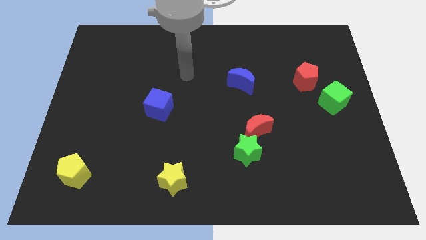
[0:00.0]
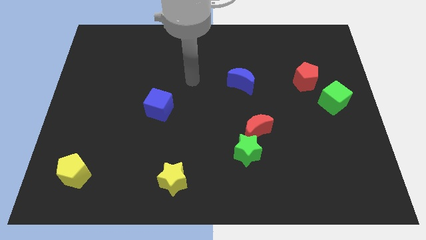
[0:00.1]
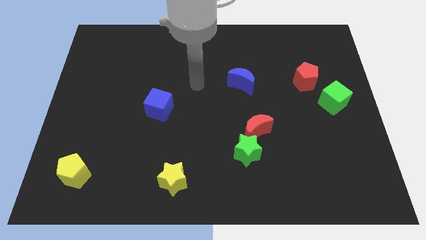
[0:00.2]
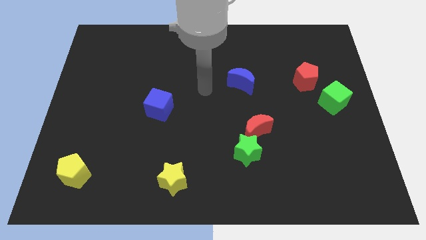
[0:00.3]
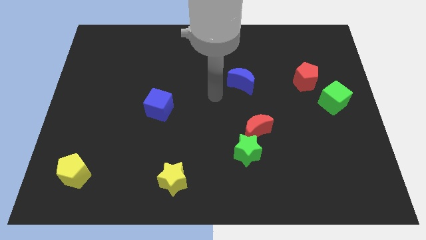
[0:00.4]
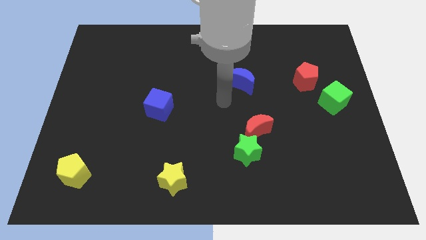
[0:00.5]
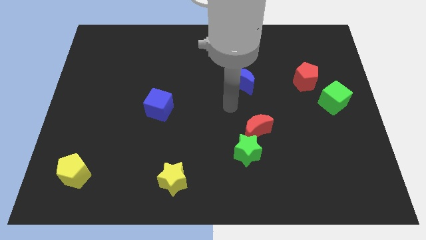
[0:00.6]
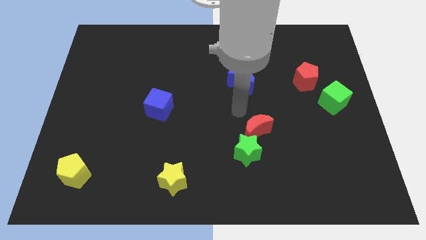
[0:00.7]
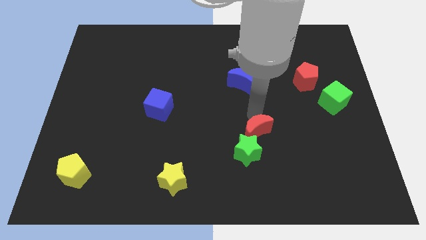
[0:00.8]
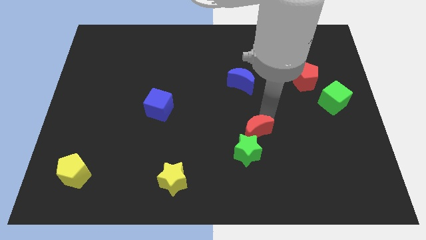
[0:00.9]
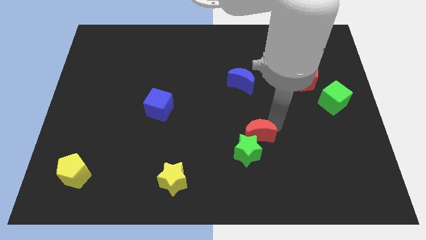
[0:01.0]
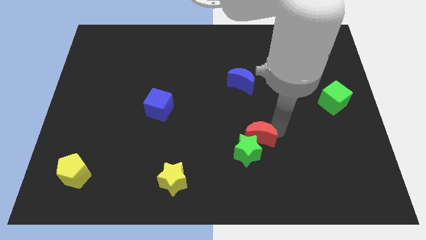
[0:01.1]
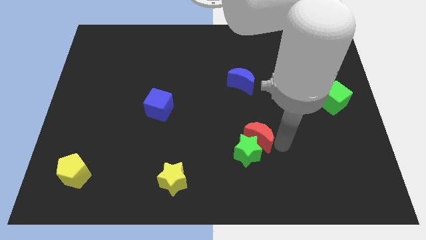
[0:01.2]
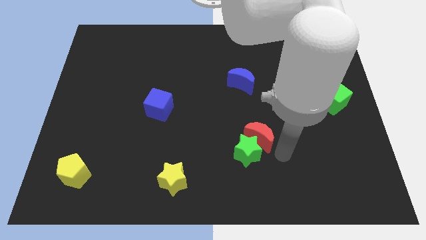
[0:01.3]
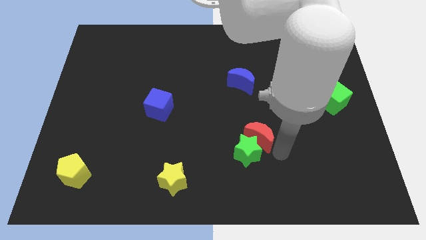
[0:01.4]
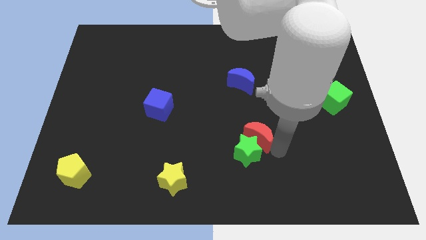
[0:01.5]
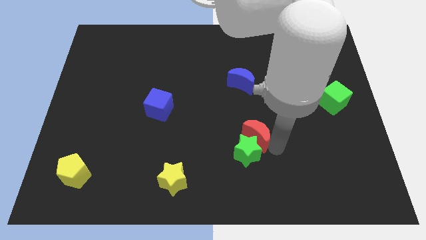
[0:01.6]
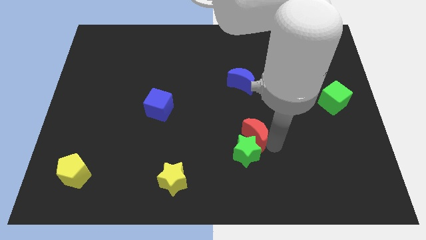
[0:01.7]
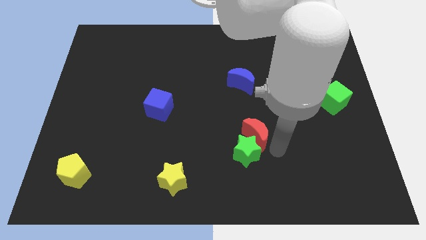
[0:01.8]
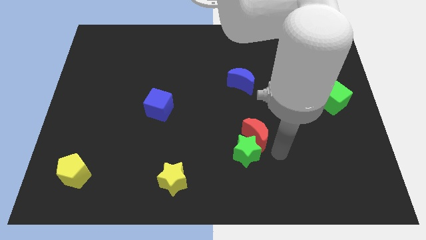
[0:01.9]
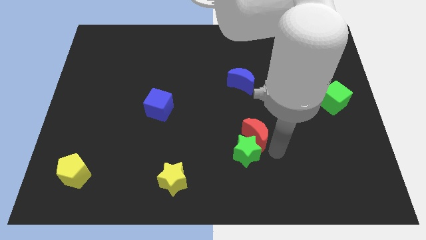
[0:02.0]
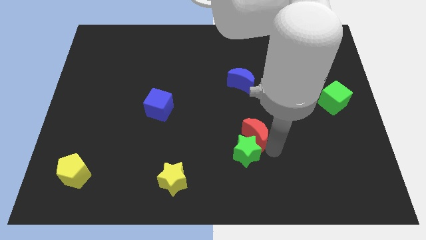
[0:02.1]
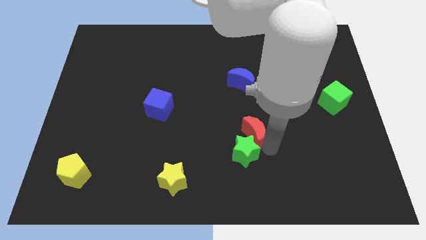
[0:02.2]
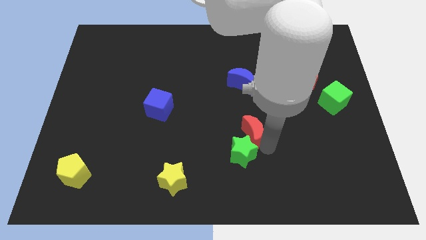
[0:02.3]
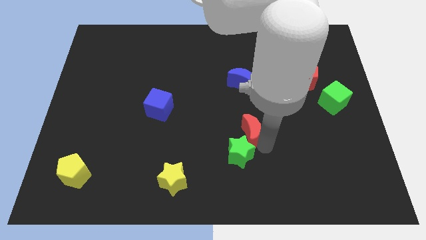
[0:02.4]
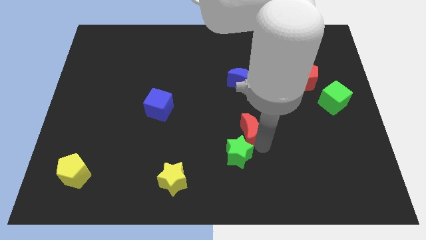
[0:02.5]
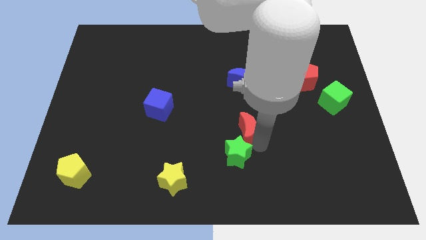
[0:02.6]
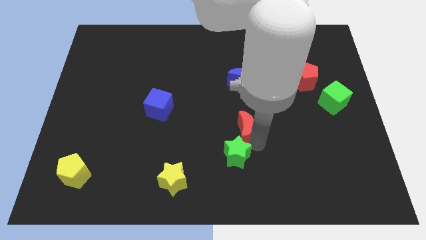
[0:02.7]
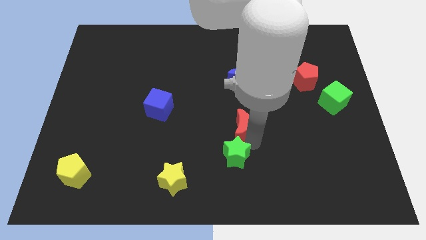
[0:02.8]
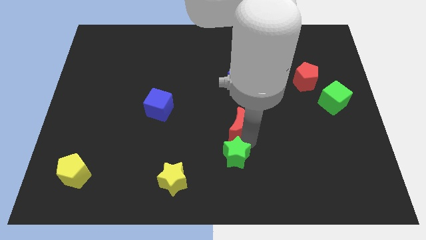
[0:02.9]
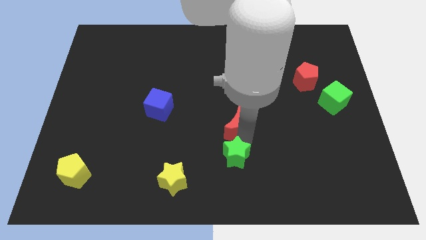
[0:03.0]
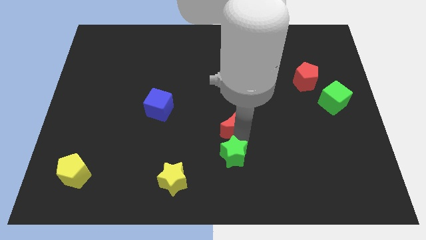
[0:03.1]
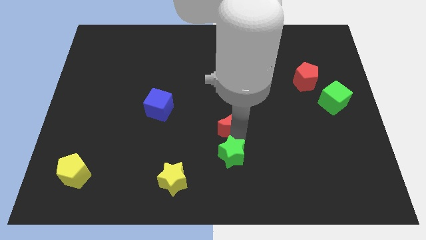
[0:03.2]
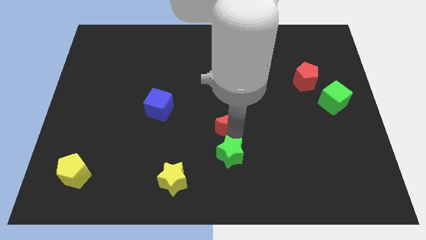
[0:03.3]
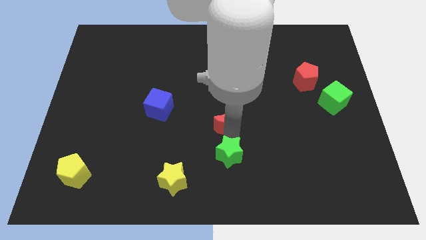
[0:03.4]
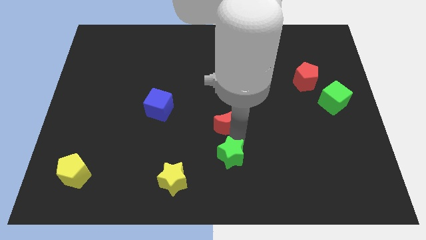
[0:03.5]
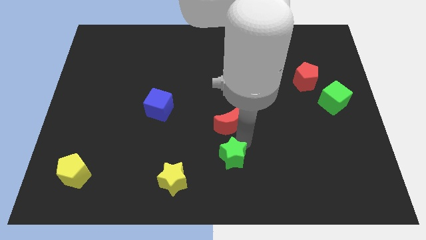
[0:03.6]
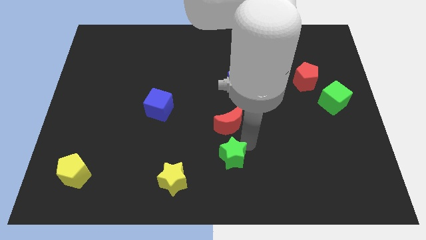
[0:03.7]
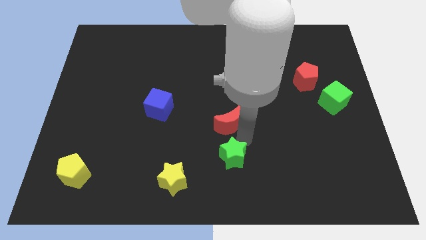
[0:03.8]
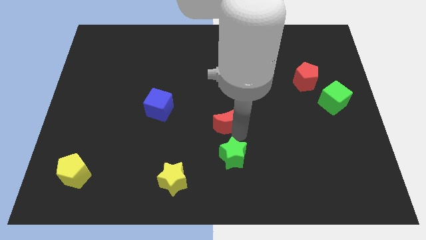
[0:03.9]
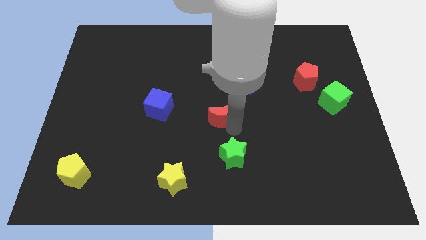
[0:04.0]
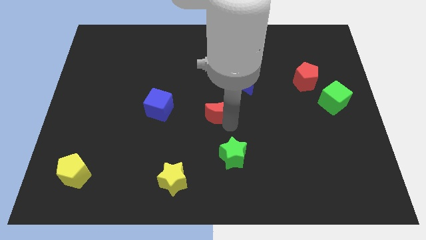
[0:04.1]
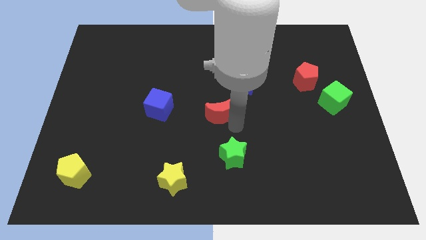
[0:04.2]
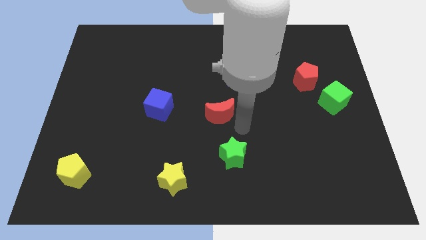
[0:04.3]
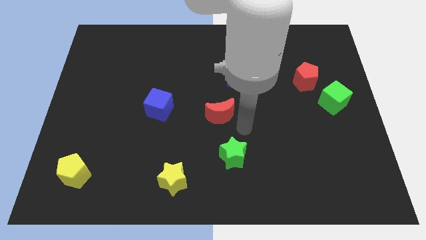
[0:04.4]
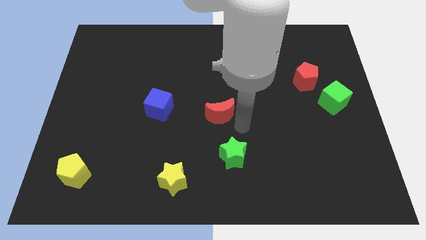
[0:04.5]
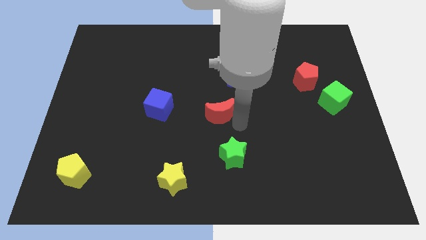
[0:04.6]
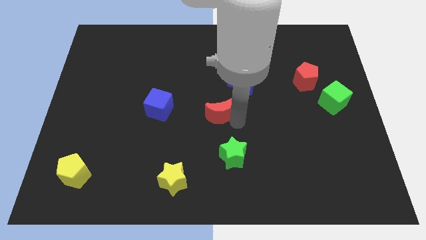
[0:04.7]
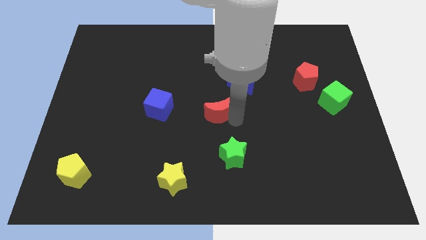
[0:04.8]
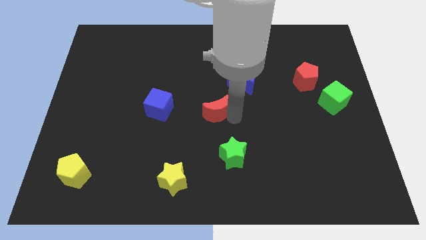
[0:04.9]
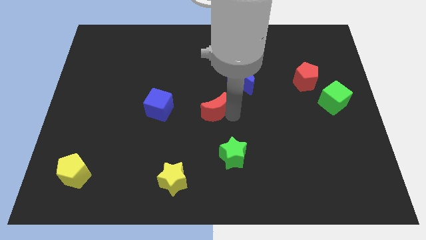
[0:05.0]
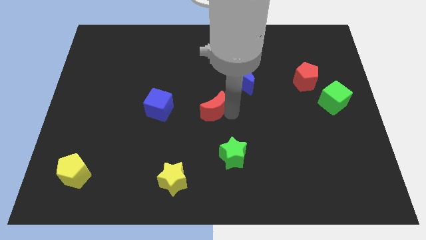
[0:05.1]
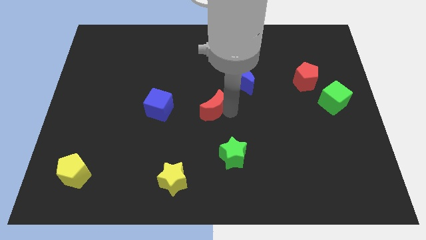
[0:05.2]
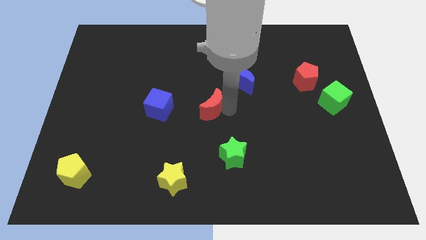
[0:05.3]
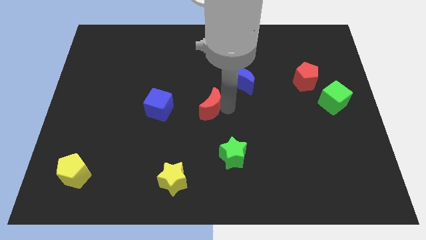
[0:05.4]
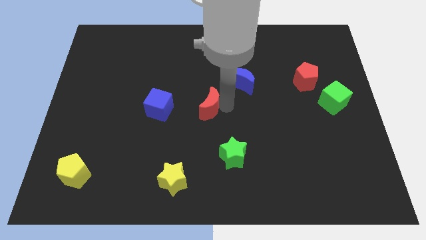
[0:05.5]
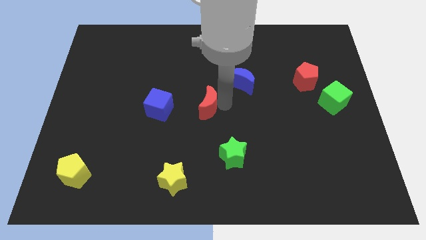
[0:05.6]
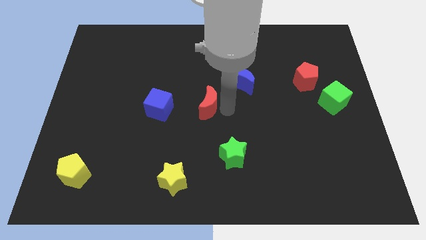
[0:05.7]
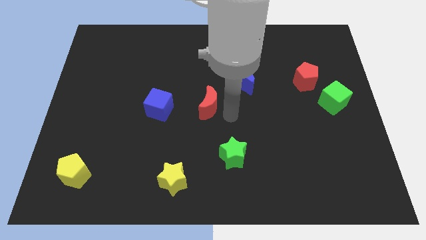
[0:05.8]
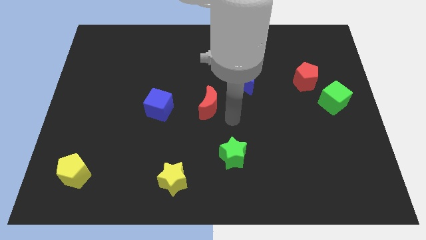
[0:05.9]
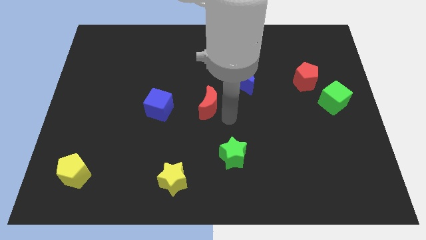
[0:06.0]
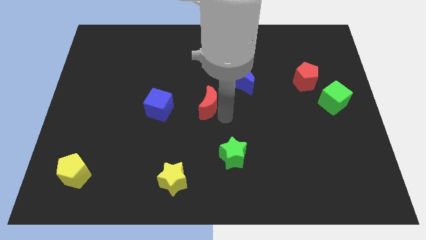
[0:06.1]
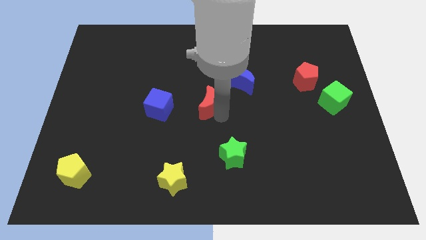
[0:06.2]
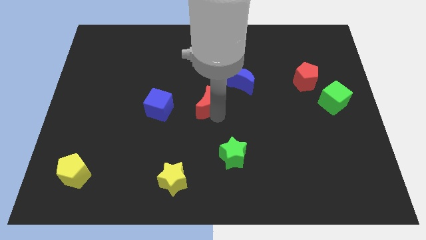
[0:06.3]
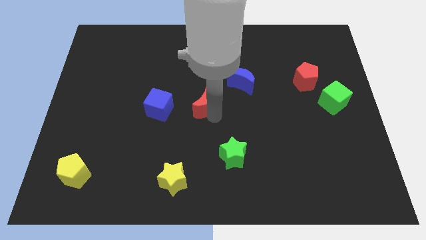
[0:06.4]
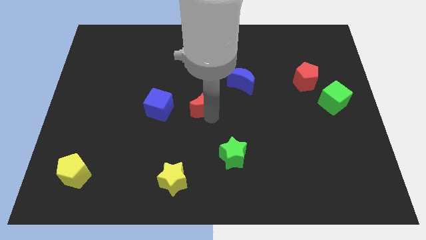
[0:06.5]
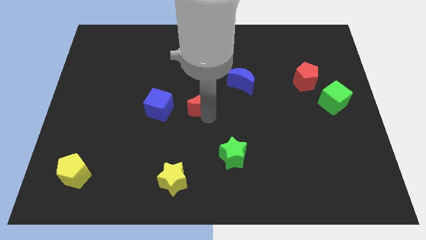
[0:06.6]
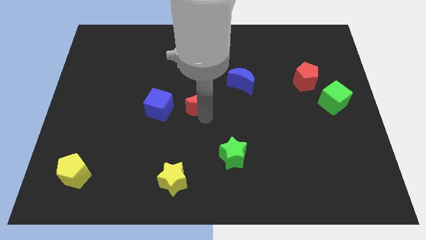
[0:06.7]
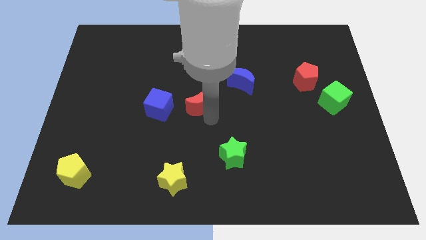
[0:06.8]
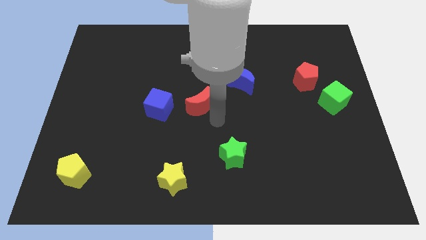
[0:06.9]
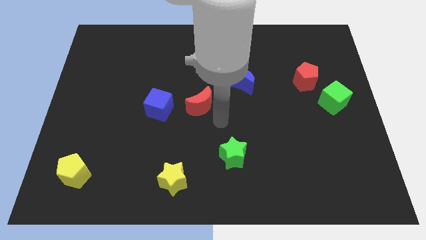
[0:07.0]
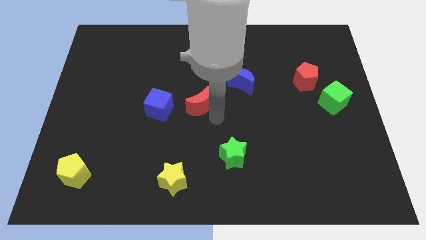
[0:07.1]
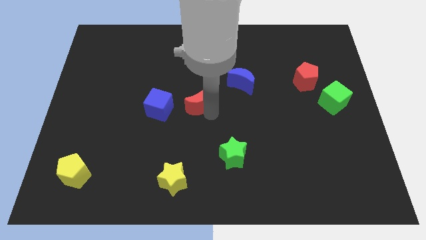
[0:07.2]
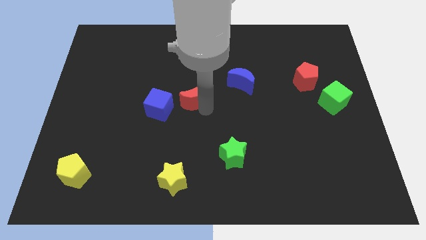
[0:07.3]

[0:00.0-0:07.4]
slide the red moon diagonally up and to the right of the blue cube
